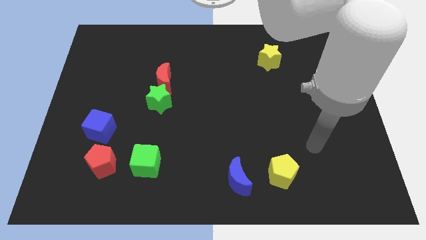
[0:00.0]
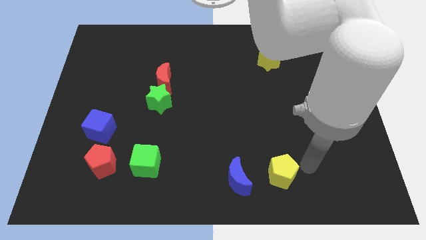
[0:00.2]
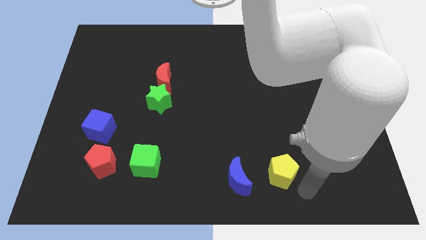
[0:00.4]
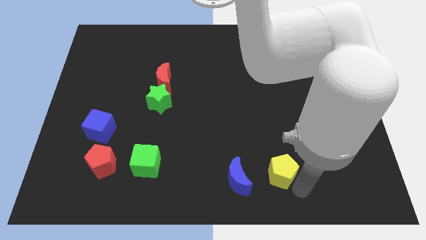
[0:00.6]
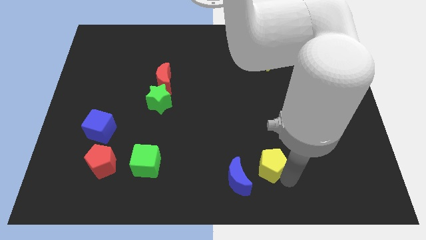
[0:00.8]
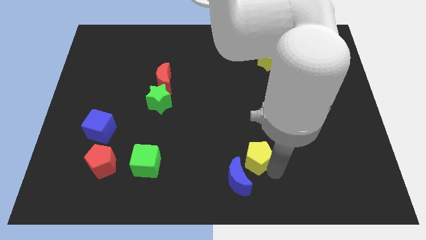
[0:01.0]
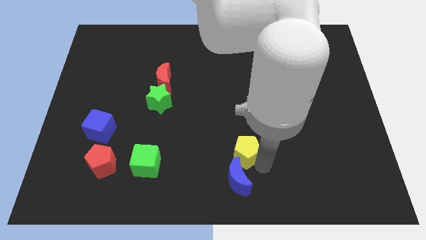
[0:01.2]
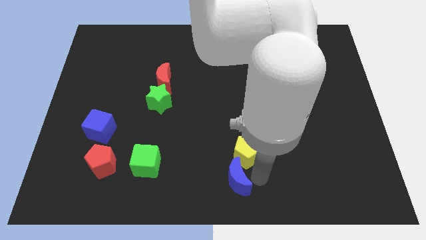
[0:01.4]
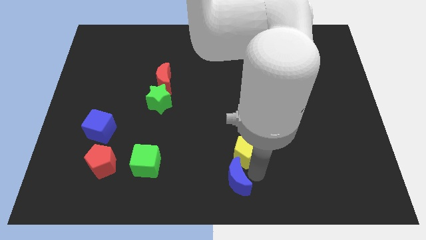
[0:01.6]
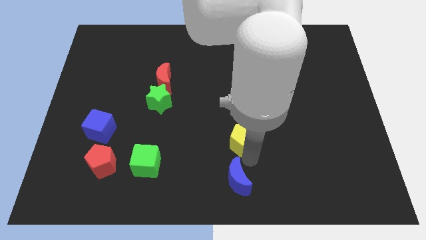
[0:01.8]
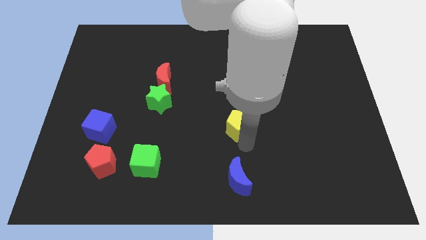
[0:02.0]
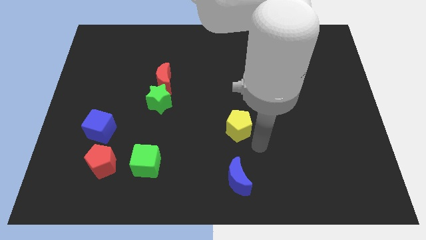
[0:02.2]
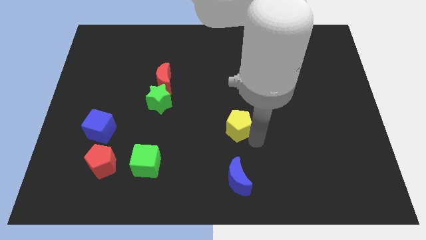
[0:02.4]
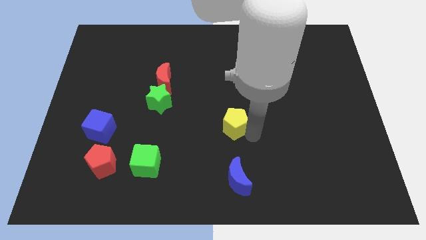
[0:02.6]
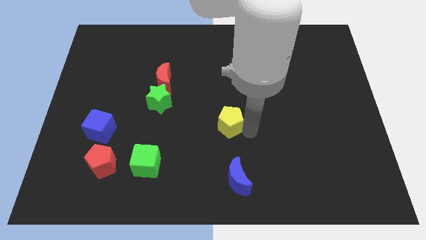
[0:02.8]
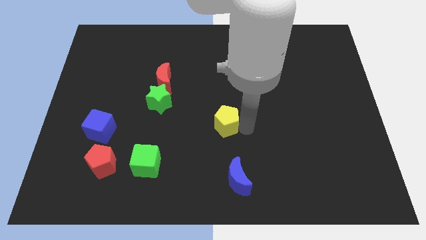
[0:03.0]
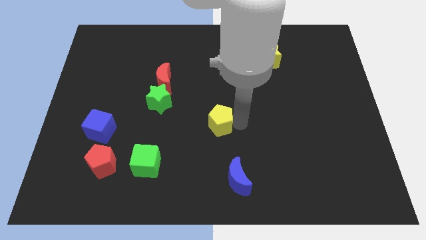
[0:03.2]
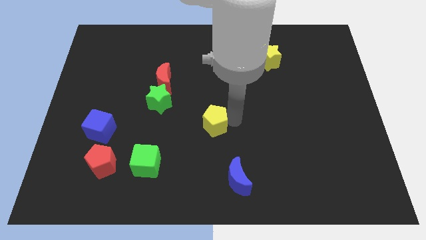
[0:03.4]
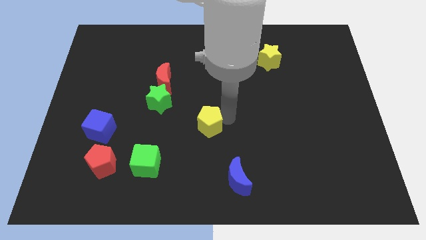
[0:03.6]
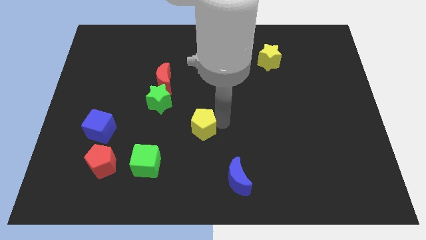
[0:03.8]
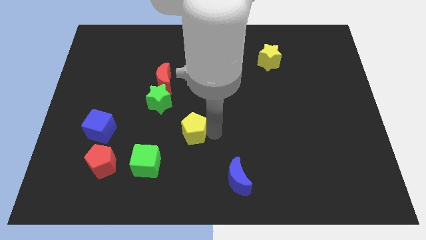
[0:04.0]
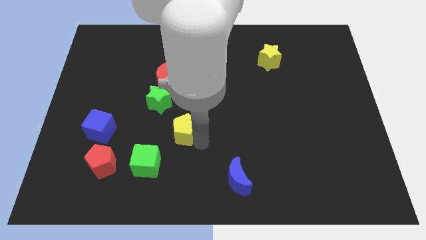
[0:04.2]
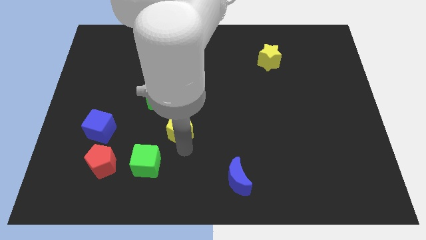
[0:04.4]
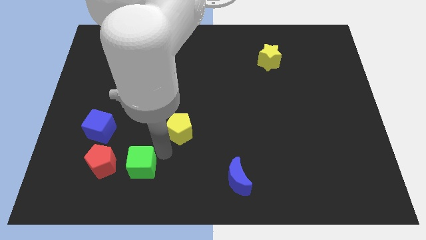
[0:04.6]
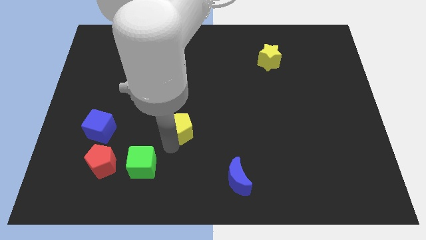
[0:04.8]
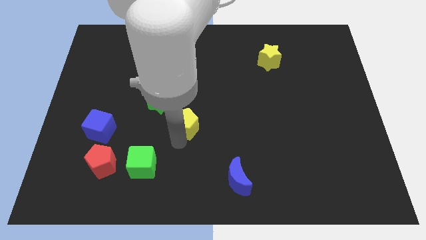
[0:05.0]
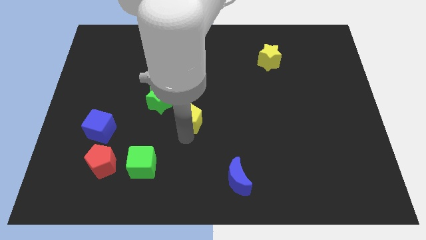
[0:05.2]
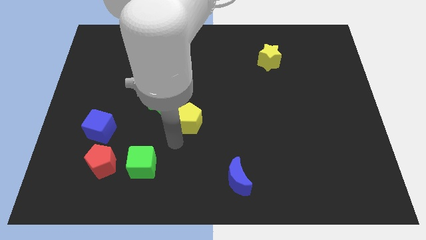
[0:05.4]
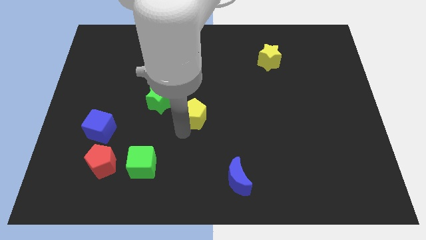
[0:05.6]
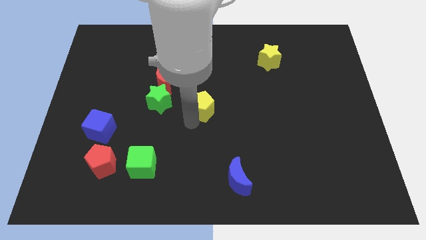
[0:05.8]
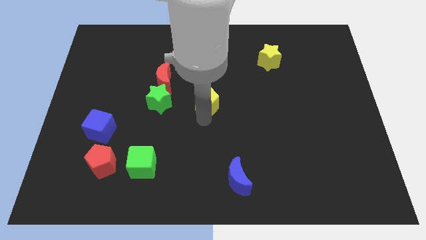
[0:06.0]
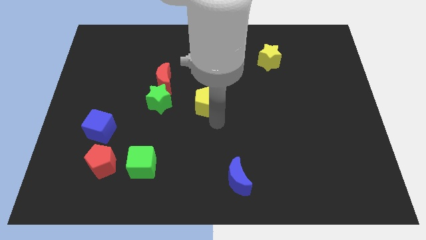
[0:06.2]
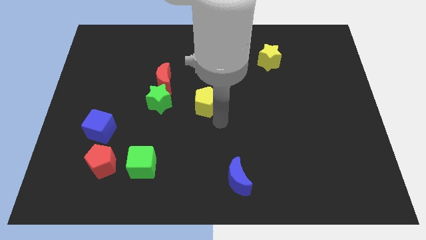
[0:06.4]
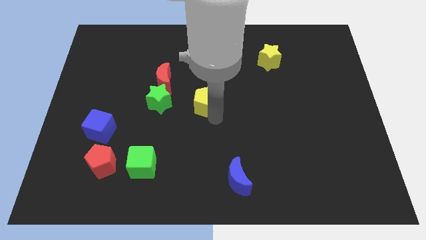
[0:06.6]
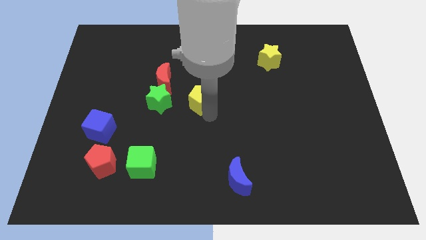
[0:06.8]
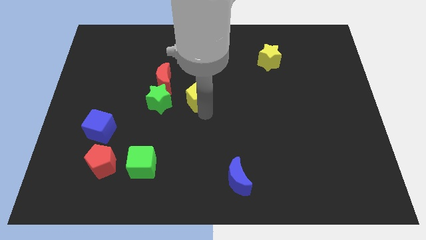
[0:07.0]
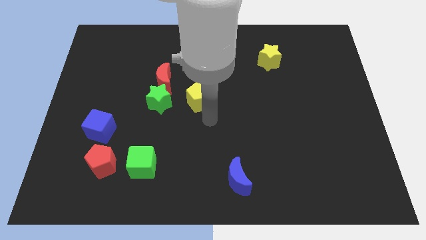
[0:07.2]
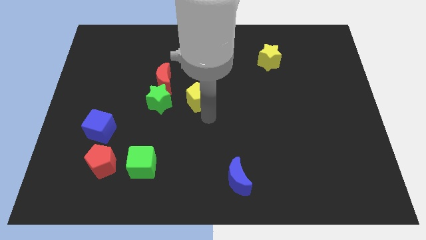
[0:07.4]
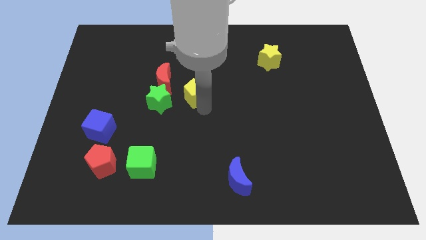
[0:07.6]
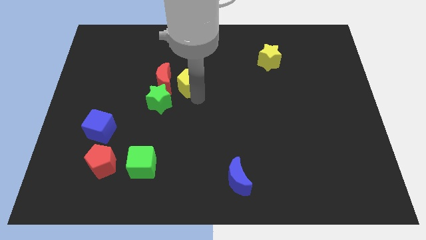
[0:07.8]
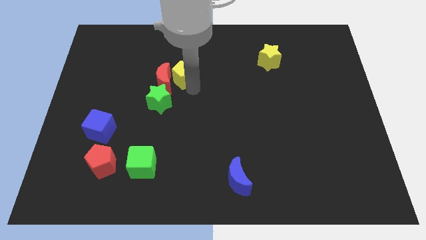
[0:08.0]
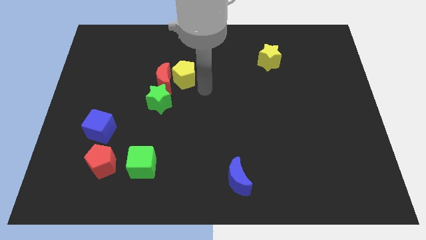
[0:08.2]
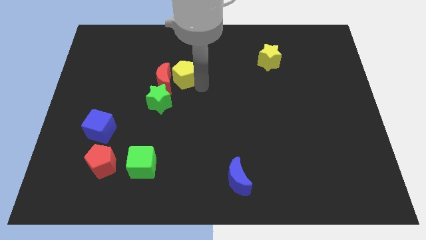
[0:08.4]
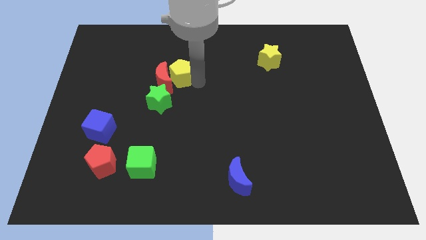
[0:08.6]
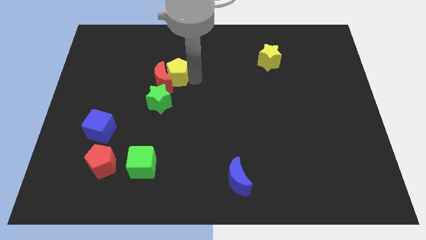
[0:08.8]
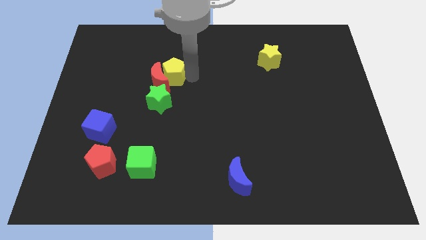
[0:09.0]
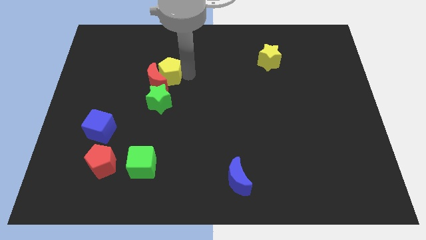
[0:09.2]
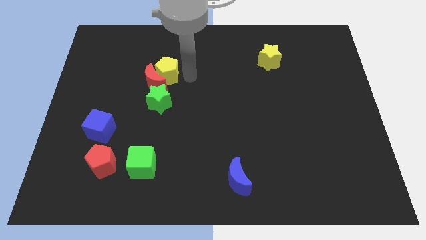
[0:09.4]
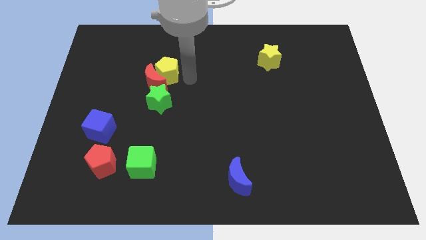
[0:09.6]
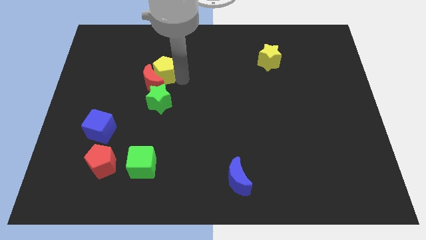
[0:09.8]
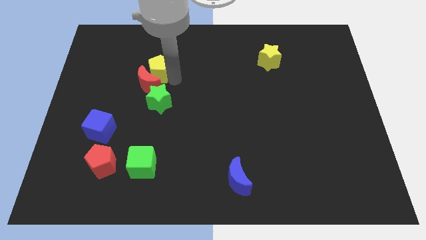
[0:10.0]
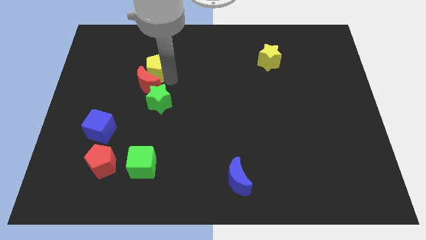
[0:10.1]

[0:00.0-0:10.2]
slide the yellow pentagon to the top left side of the red moon

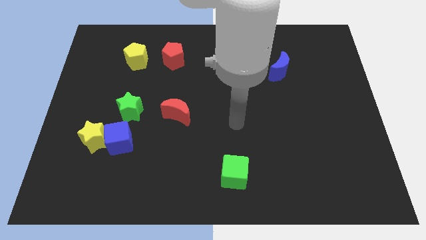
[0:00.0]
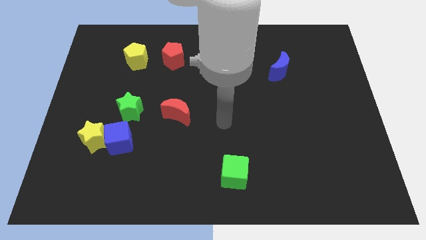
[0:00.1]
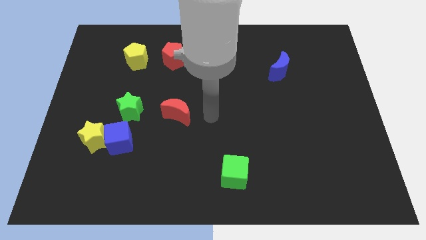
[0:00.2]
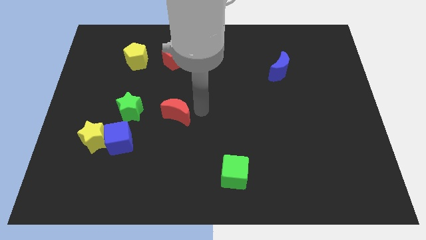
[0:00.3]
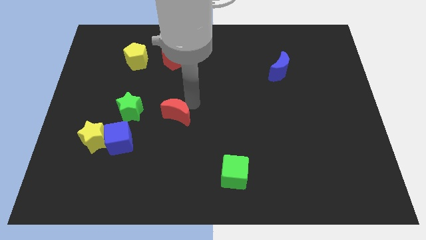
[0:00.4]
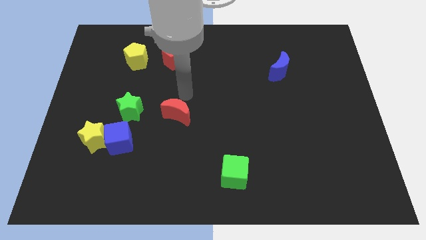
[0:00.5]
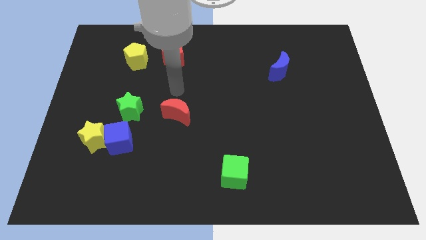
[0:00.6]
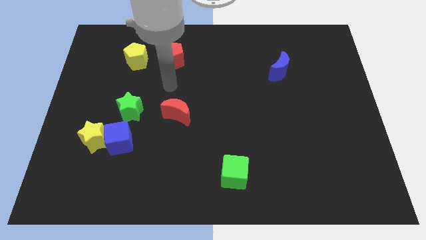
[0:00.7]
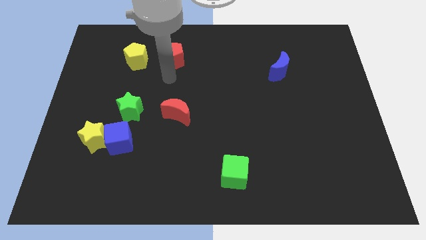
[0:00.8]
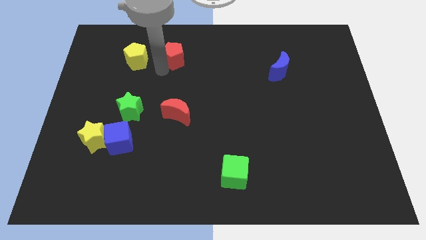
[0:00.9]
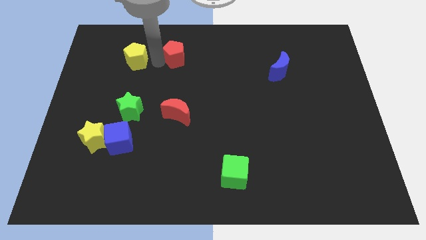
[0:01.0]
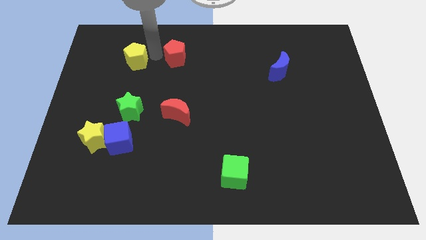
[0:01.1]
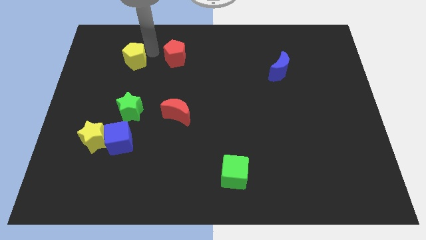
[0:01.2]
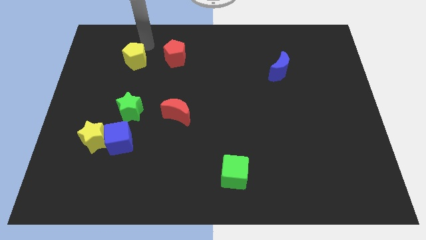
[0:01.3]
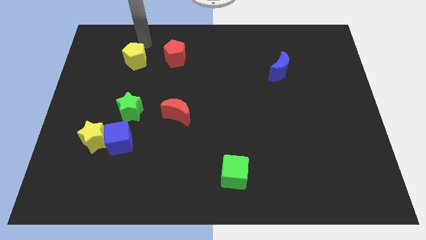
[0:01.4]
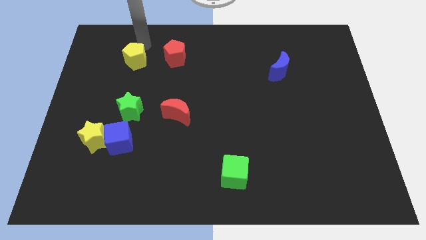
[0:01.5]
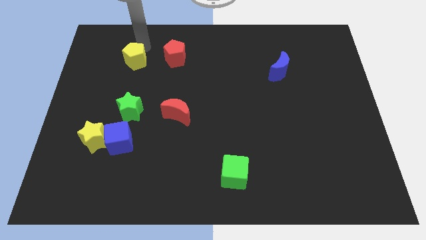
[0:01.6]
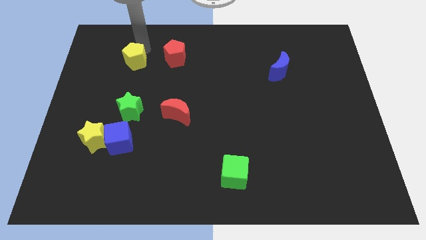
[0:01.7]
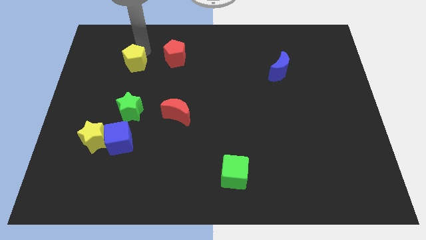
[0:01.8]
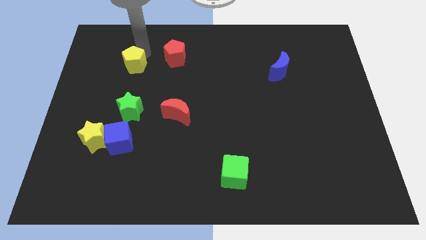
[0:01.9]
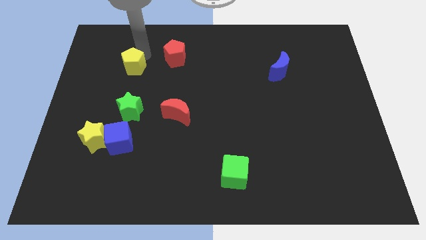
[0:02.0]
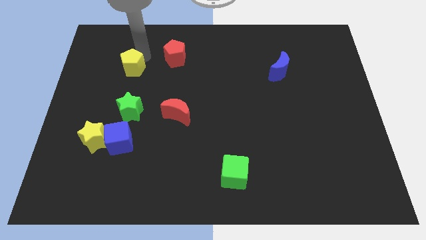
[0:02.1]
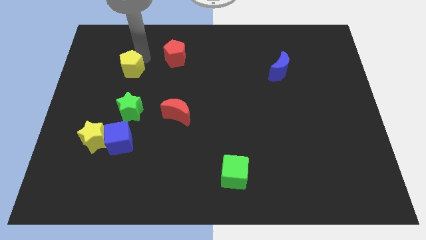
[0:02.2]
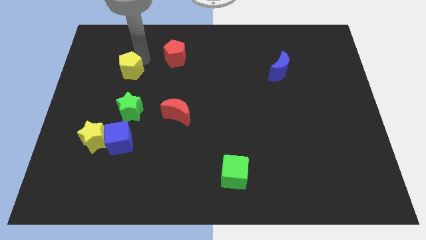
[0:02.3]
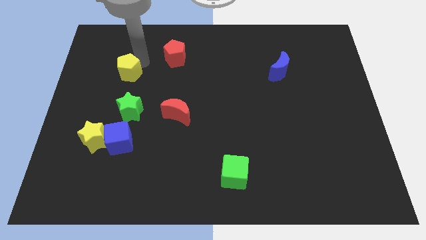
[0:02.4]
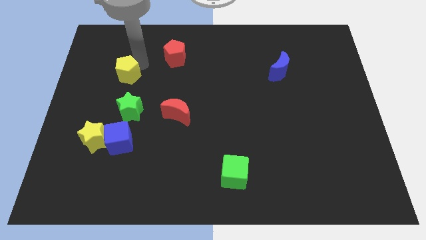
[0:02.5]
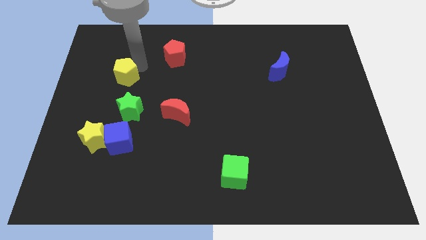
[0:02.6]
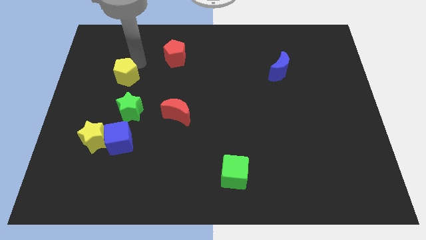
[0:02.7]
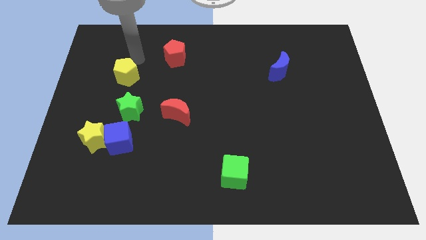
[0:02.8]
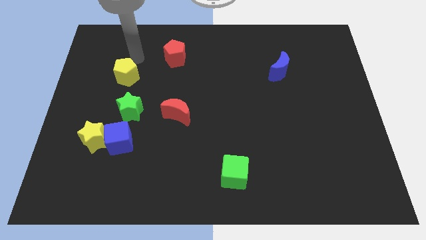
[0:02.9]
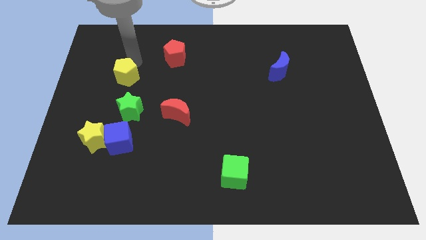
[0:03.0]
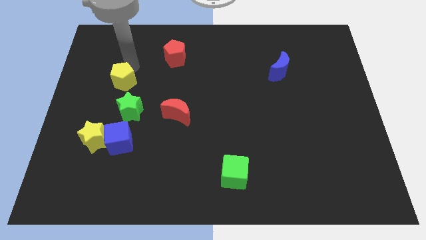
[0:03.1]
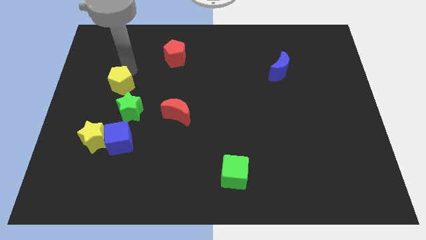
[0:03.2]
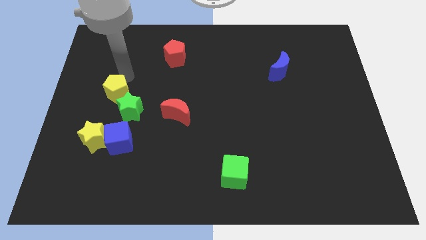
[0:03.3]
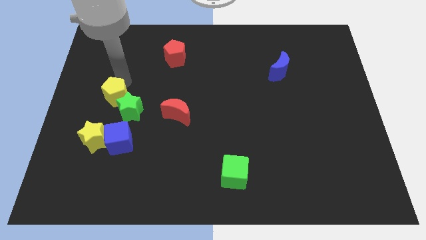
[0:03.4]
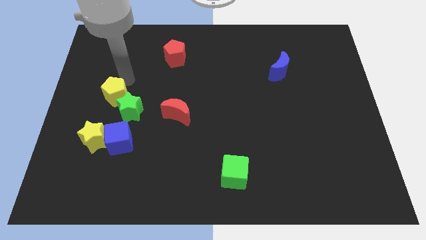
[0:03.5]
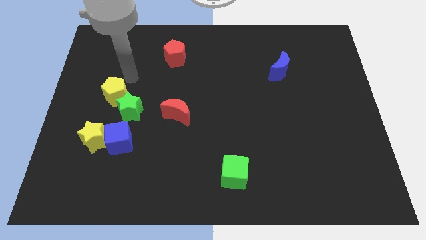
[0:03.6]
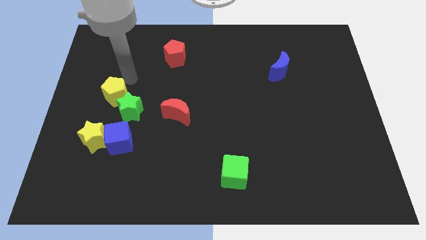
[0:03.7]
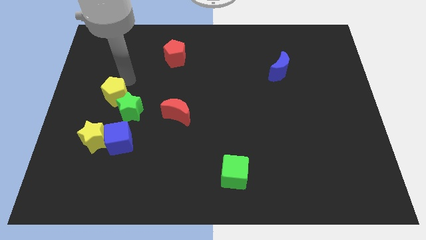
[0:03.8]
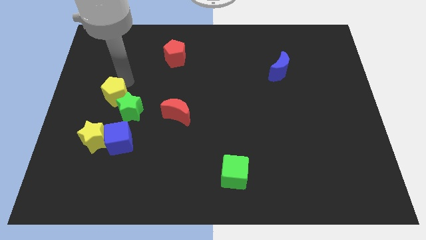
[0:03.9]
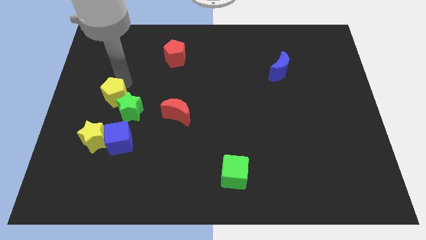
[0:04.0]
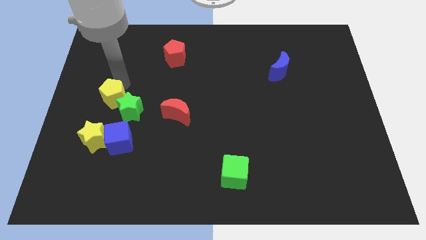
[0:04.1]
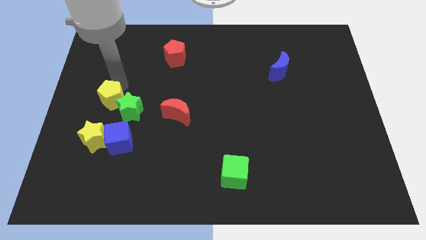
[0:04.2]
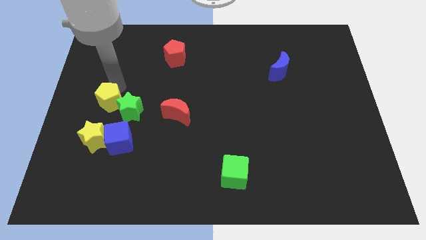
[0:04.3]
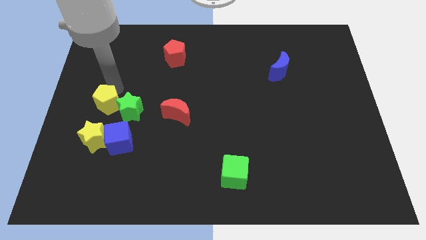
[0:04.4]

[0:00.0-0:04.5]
push the yellow pentagon diagonally up and to the left of the blue cube
